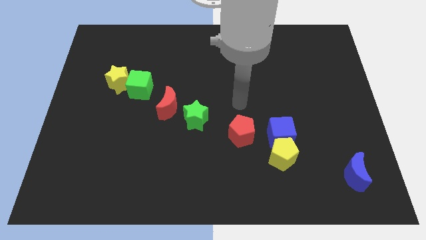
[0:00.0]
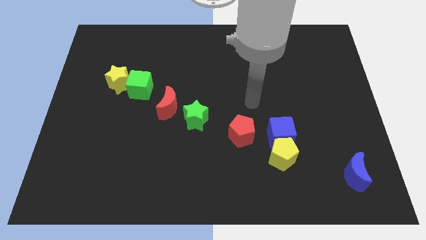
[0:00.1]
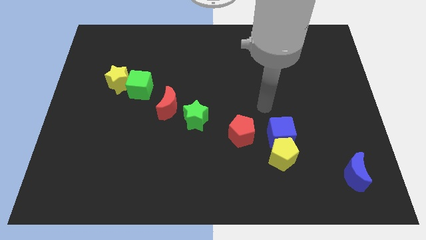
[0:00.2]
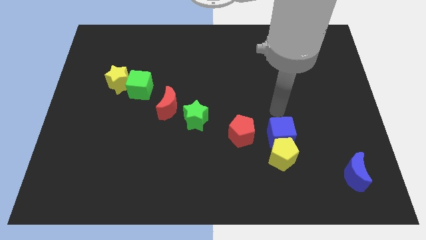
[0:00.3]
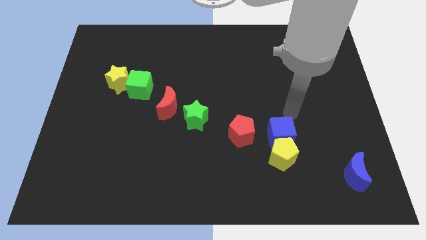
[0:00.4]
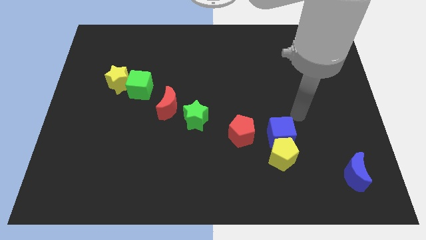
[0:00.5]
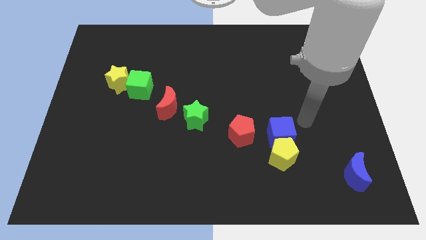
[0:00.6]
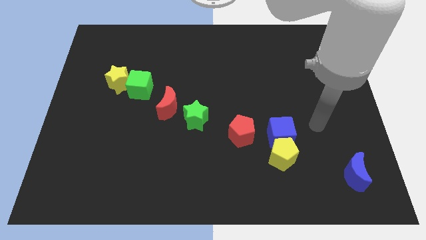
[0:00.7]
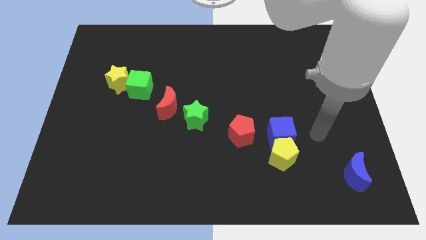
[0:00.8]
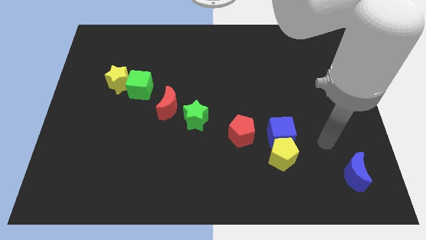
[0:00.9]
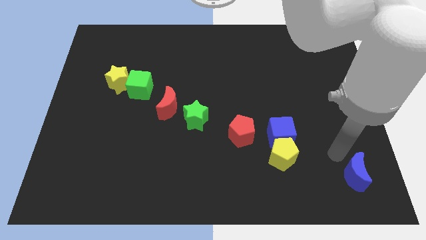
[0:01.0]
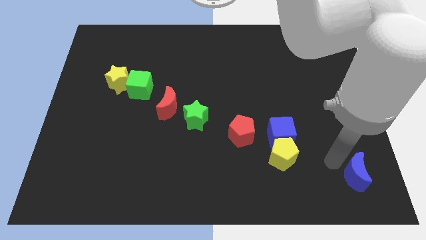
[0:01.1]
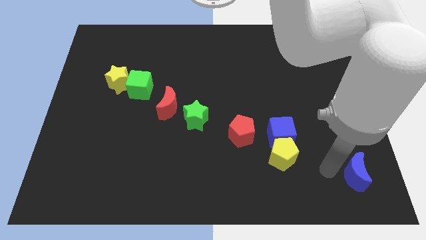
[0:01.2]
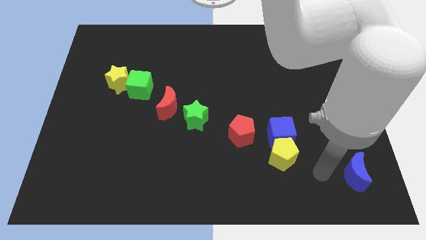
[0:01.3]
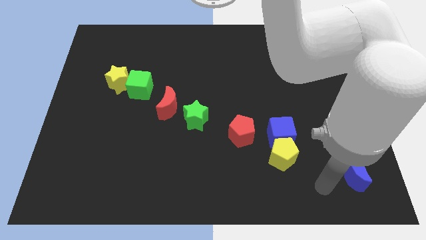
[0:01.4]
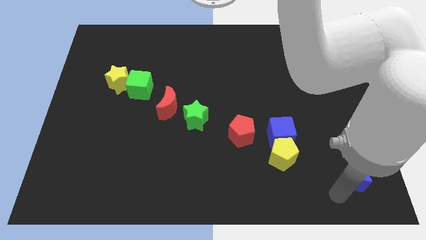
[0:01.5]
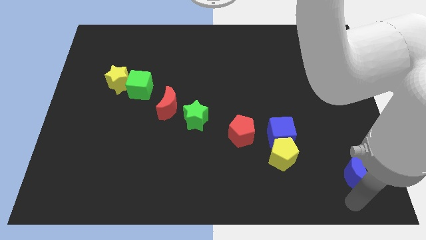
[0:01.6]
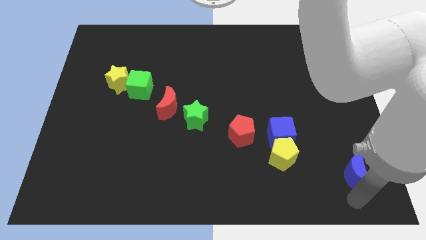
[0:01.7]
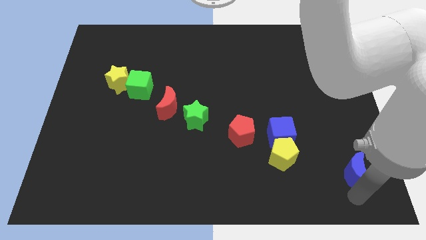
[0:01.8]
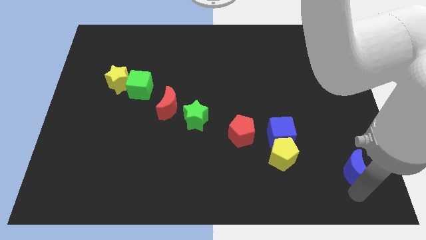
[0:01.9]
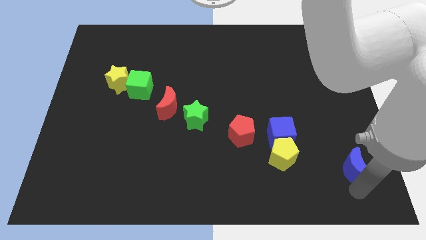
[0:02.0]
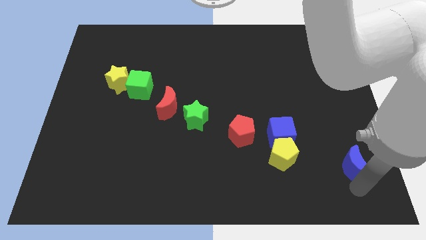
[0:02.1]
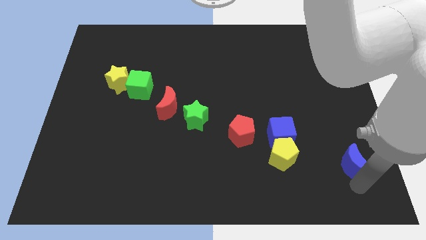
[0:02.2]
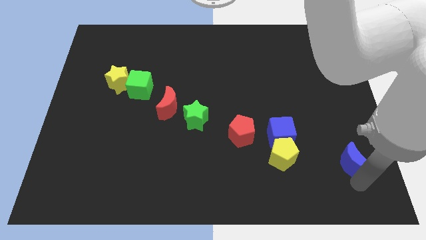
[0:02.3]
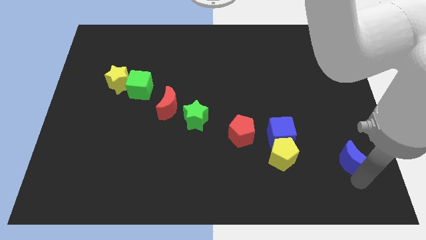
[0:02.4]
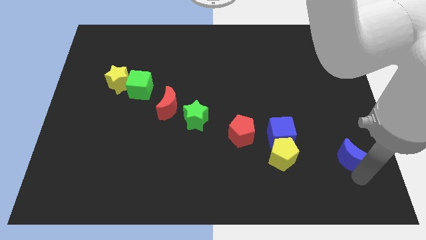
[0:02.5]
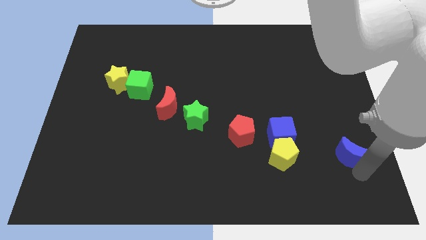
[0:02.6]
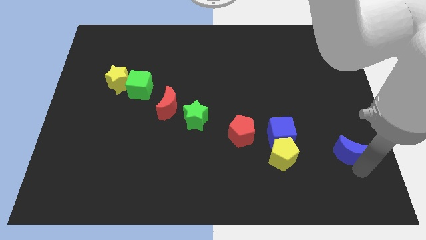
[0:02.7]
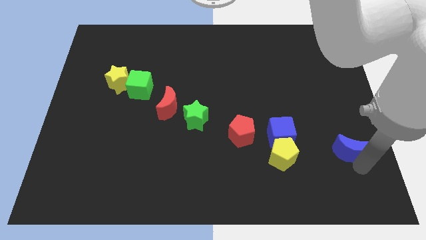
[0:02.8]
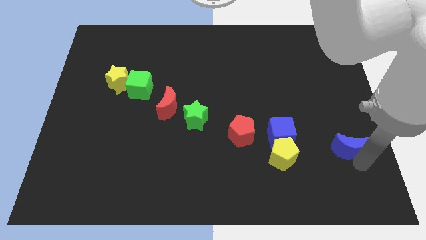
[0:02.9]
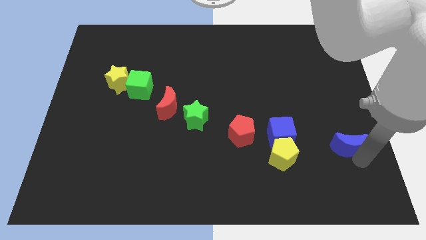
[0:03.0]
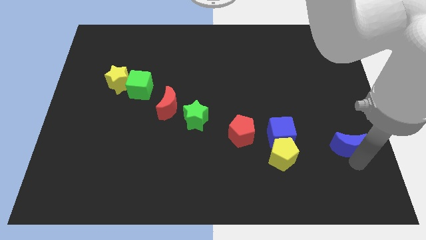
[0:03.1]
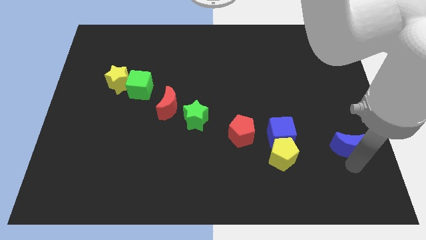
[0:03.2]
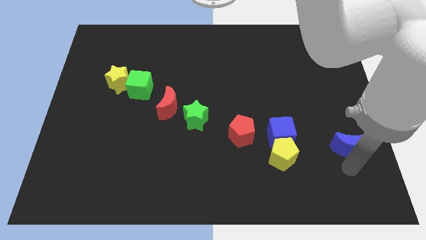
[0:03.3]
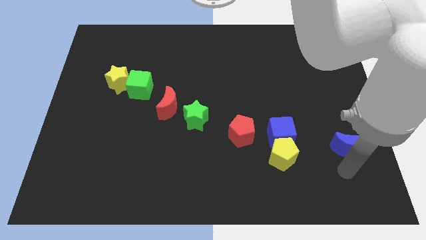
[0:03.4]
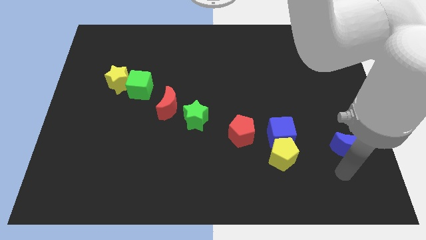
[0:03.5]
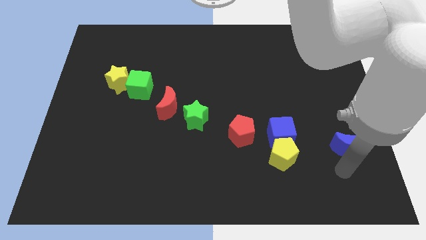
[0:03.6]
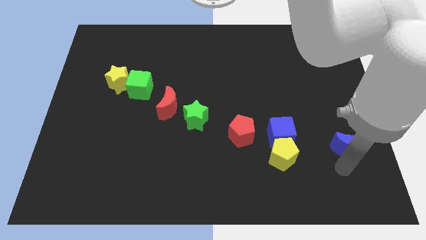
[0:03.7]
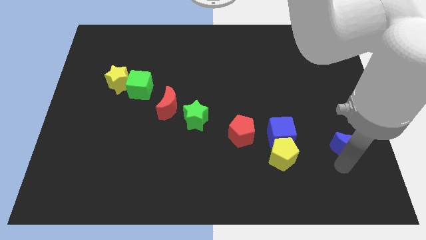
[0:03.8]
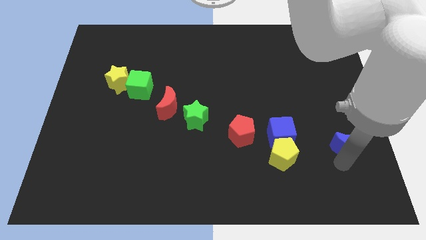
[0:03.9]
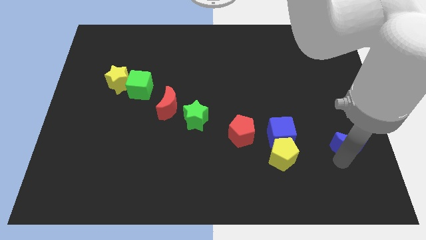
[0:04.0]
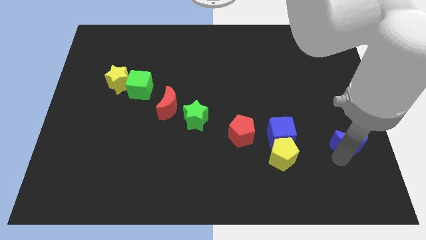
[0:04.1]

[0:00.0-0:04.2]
slightly slide the blue moon up

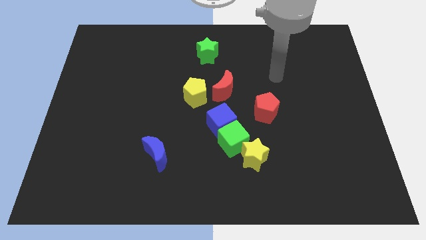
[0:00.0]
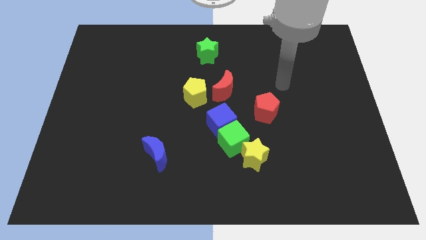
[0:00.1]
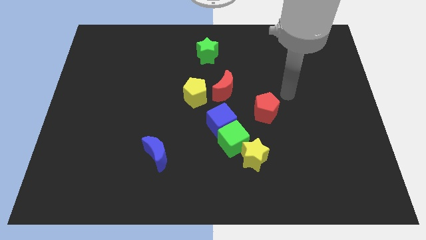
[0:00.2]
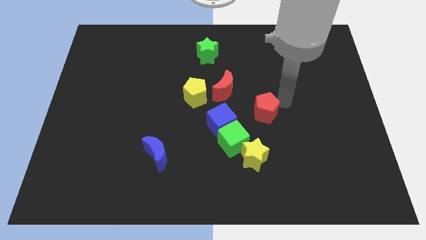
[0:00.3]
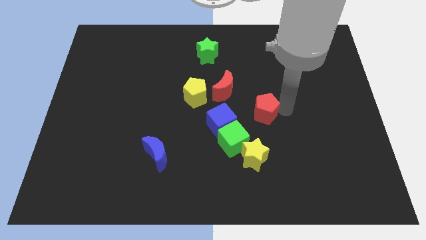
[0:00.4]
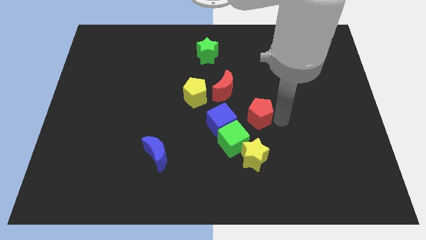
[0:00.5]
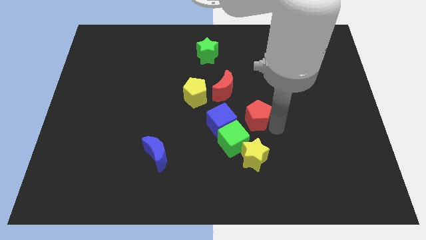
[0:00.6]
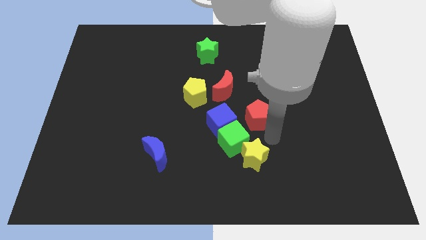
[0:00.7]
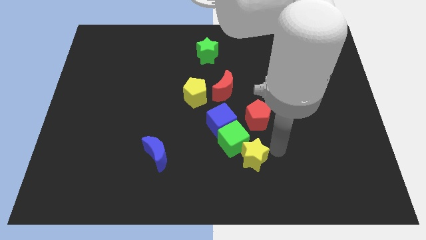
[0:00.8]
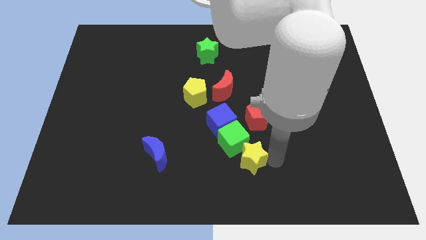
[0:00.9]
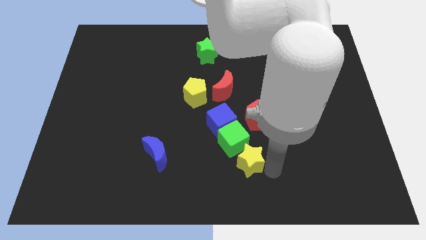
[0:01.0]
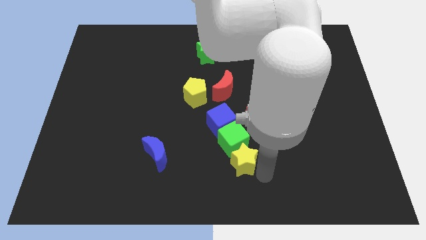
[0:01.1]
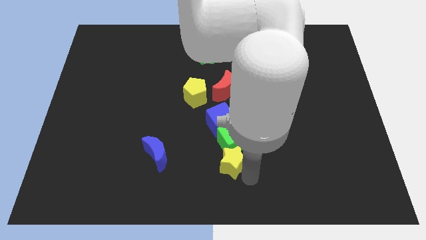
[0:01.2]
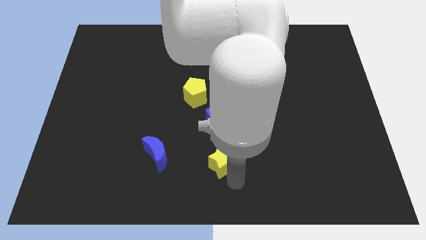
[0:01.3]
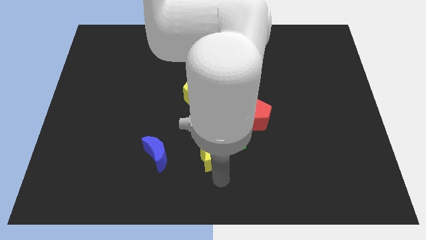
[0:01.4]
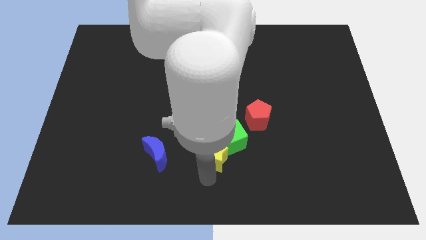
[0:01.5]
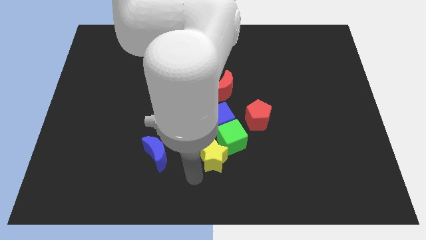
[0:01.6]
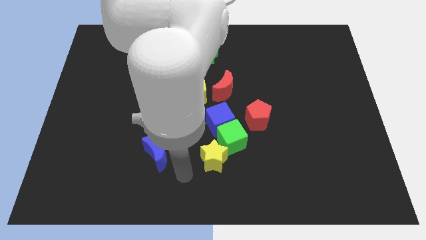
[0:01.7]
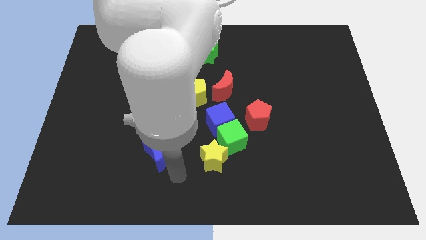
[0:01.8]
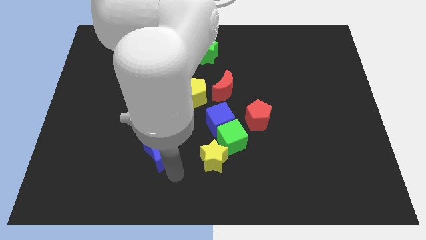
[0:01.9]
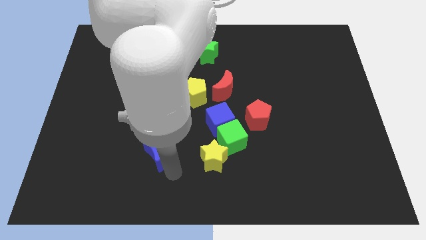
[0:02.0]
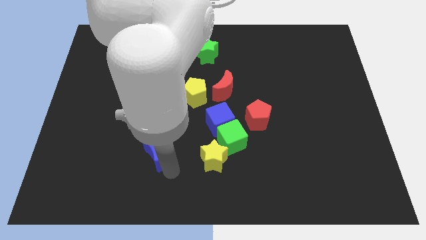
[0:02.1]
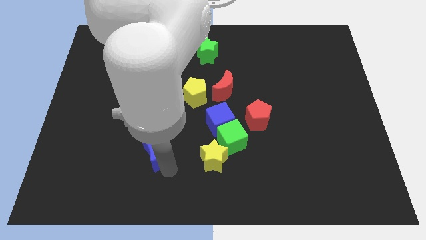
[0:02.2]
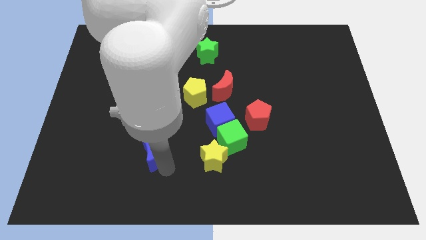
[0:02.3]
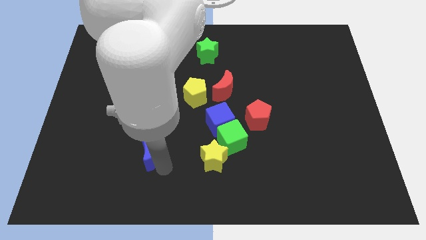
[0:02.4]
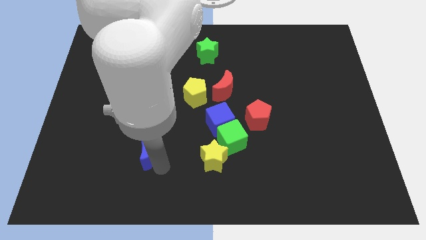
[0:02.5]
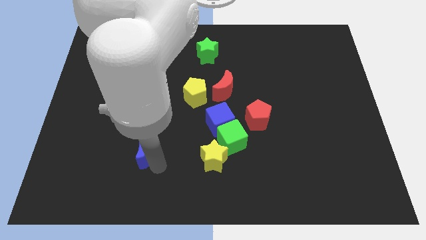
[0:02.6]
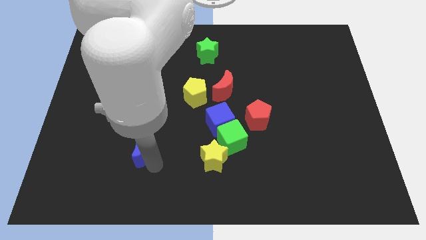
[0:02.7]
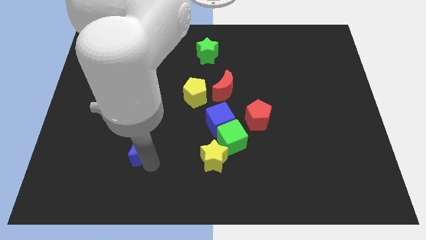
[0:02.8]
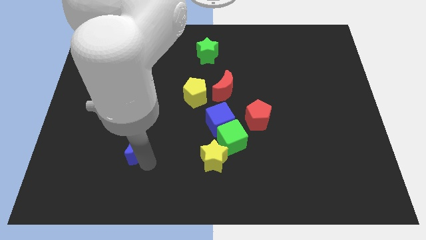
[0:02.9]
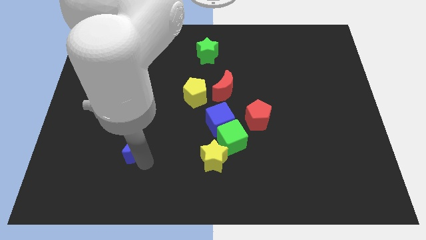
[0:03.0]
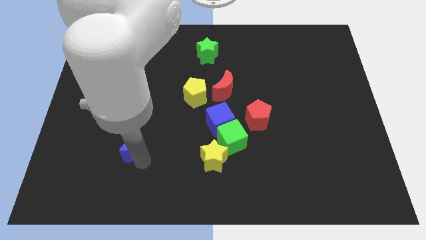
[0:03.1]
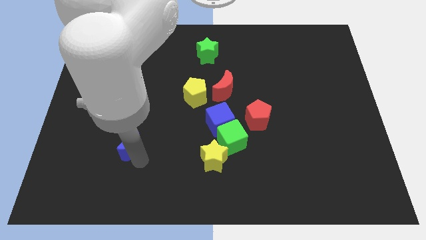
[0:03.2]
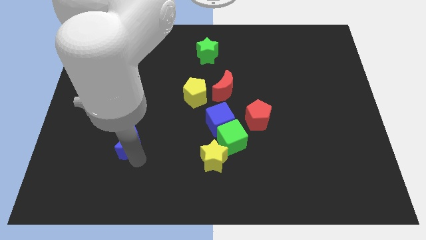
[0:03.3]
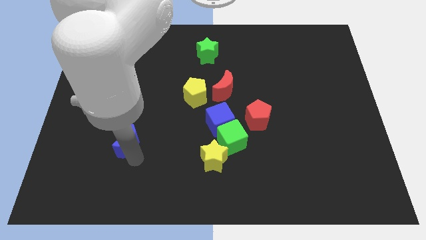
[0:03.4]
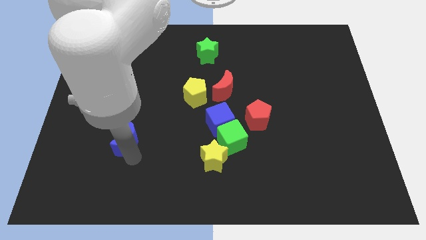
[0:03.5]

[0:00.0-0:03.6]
slightly push the blue moon diagonally up and left

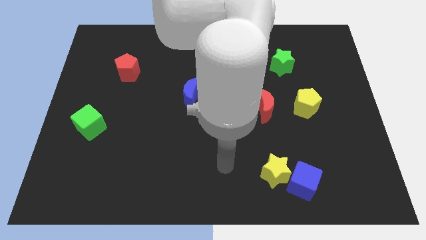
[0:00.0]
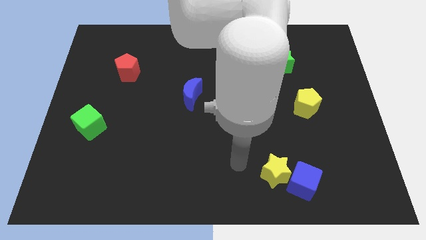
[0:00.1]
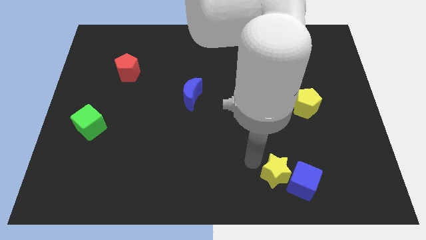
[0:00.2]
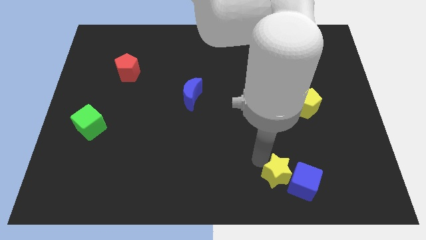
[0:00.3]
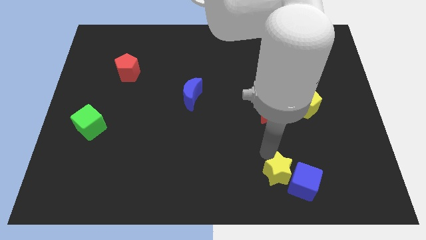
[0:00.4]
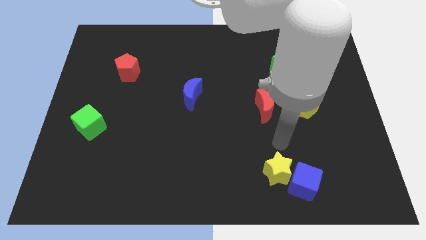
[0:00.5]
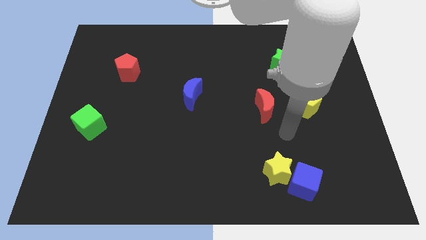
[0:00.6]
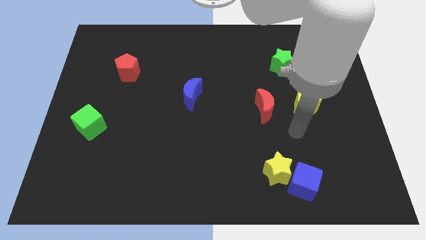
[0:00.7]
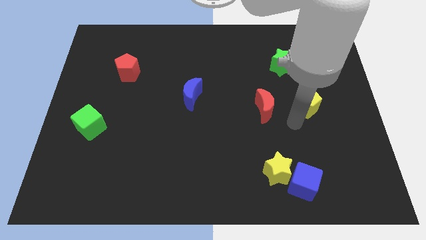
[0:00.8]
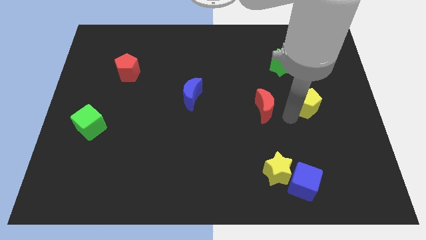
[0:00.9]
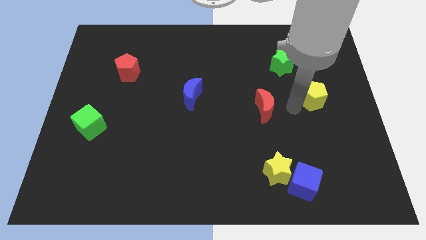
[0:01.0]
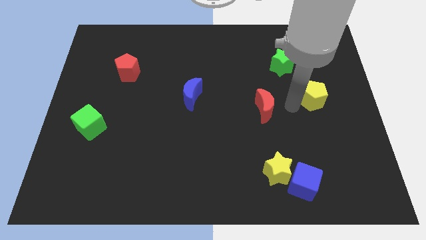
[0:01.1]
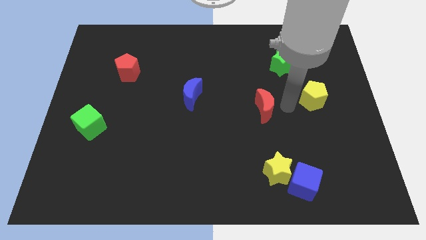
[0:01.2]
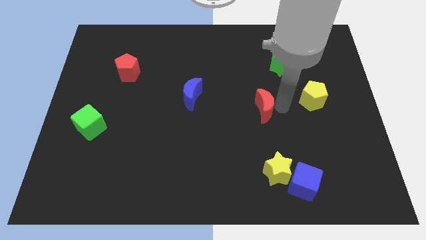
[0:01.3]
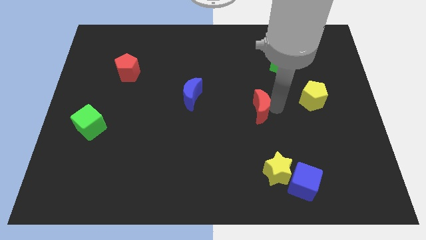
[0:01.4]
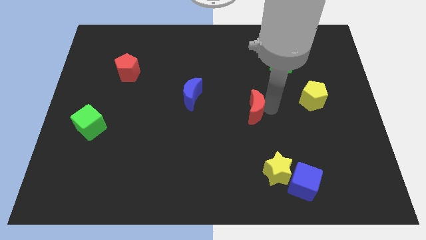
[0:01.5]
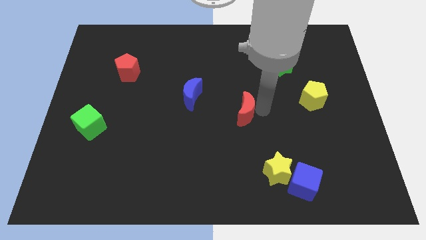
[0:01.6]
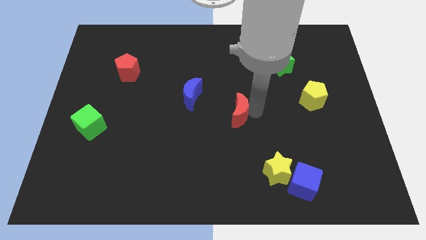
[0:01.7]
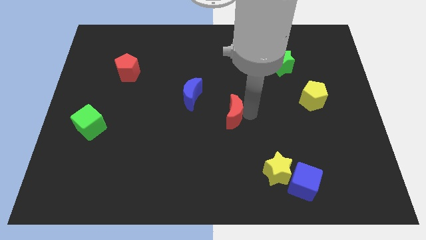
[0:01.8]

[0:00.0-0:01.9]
move the red moon a bit to the left
